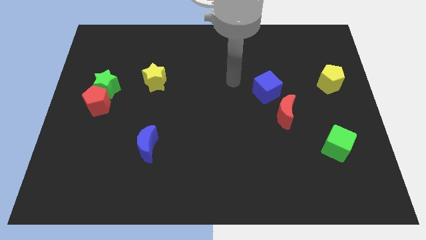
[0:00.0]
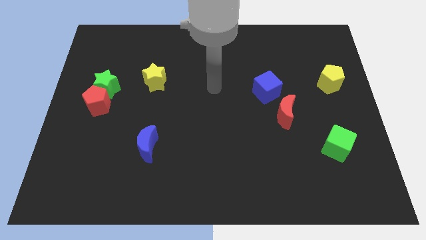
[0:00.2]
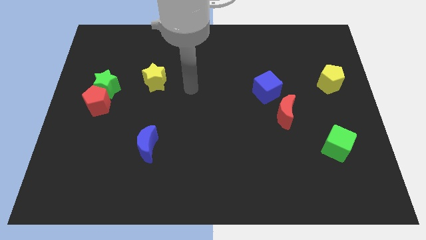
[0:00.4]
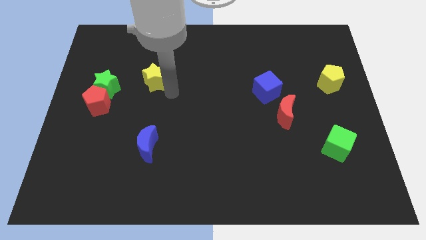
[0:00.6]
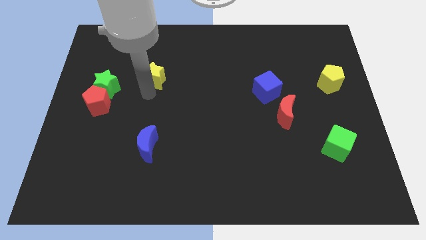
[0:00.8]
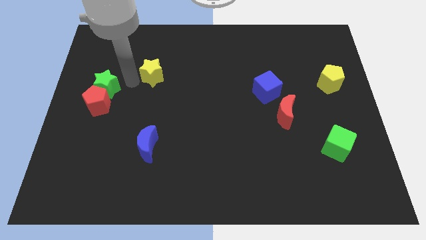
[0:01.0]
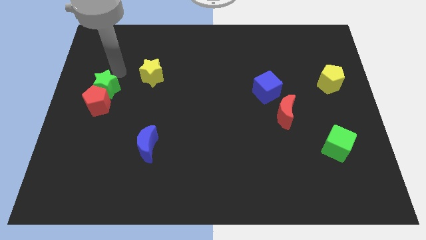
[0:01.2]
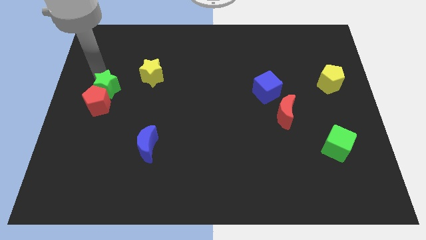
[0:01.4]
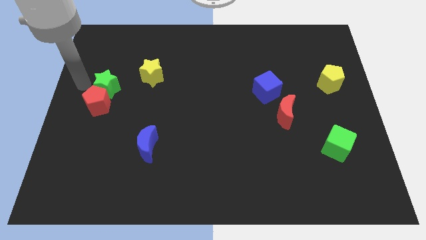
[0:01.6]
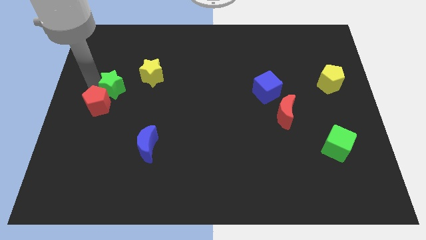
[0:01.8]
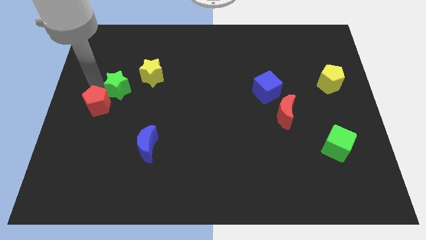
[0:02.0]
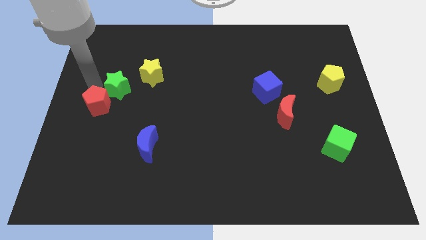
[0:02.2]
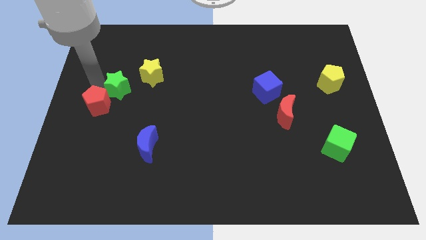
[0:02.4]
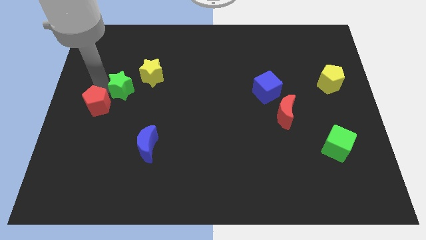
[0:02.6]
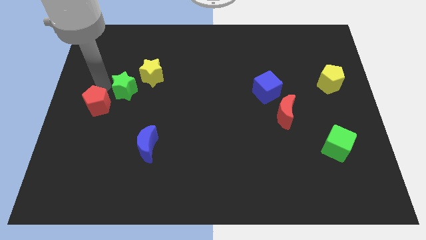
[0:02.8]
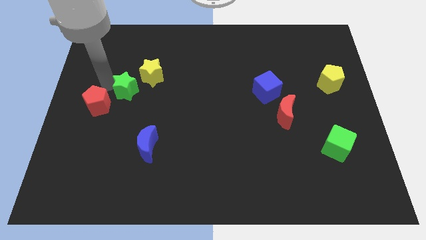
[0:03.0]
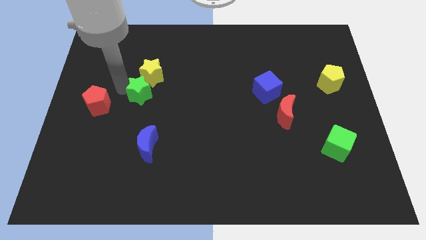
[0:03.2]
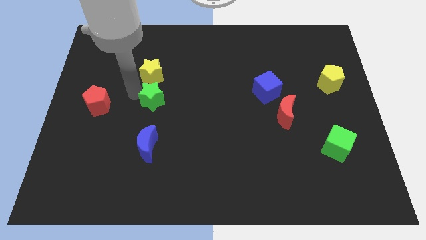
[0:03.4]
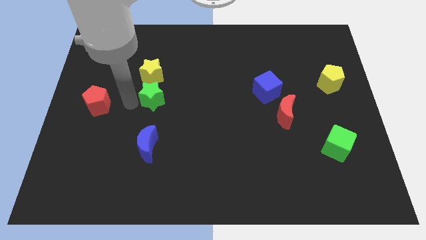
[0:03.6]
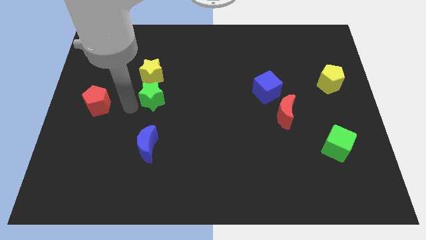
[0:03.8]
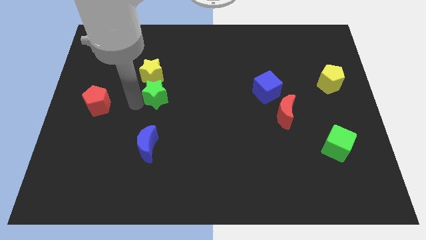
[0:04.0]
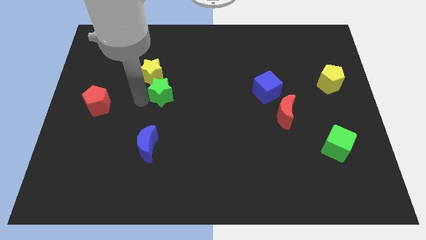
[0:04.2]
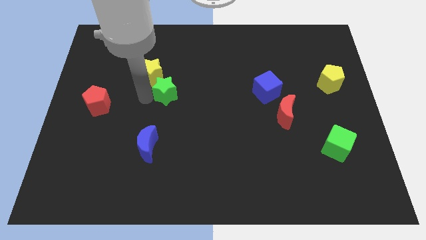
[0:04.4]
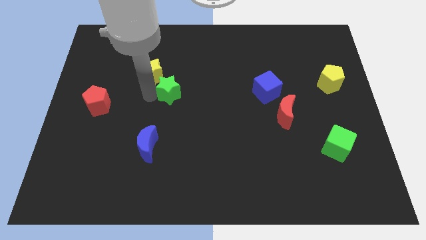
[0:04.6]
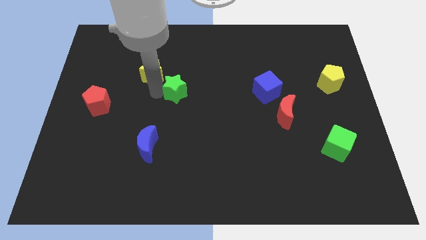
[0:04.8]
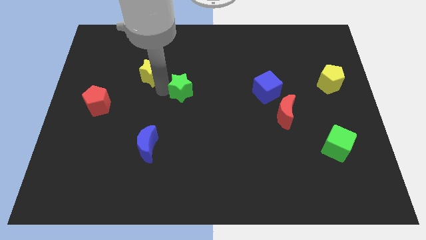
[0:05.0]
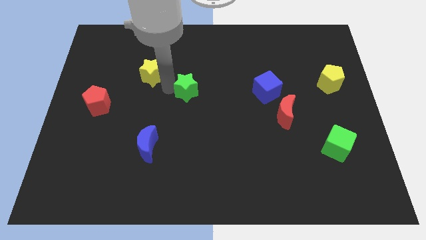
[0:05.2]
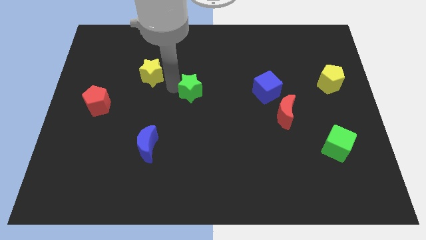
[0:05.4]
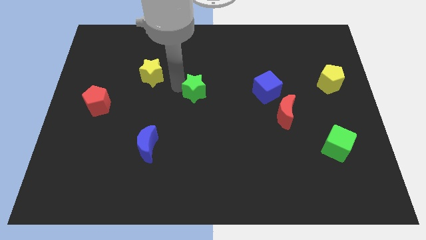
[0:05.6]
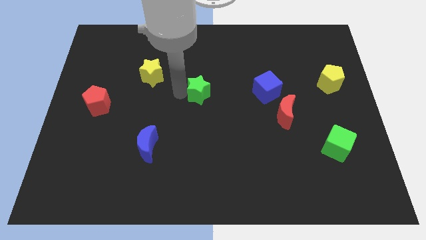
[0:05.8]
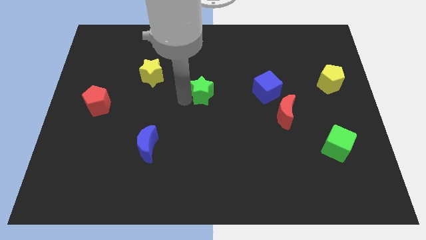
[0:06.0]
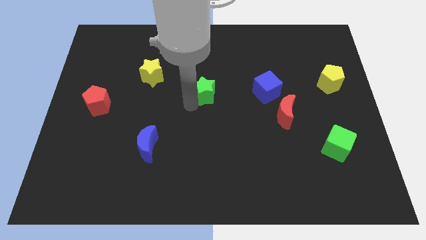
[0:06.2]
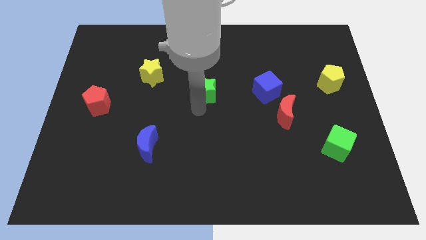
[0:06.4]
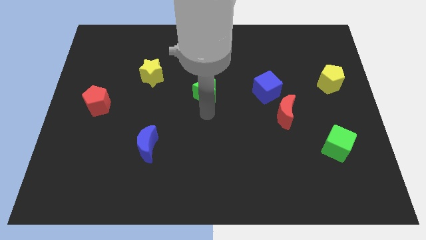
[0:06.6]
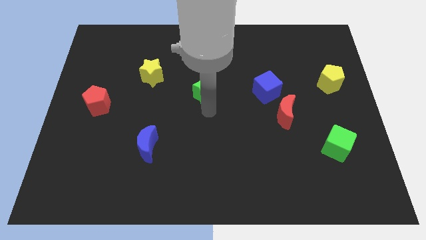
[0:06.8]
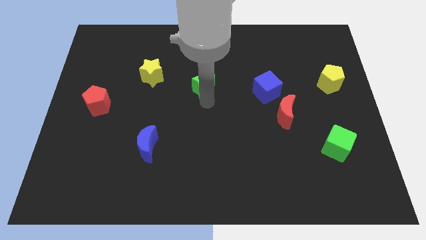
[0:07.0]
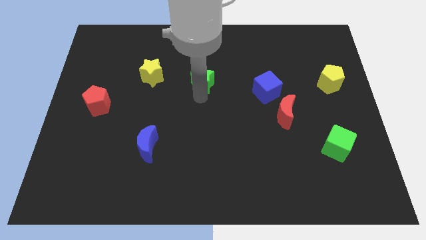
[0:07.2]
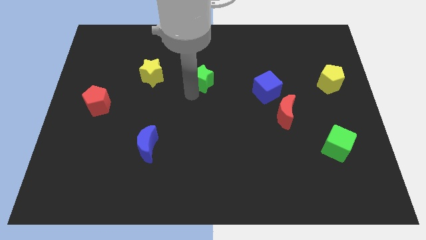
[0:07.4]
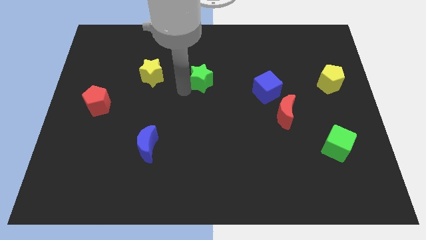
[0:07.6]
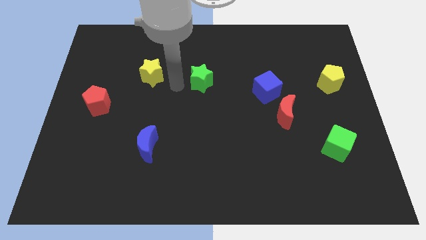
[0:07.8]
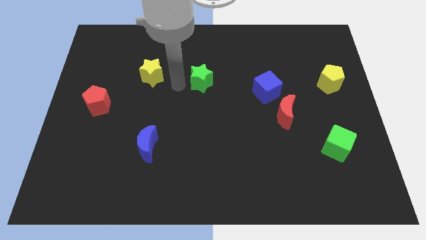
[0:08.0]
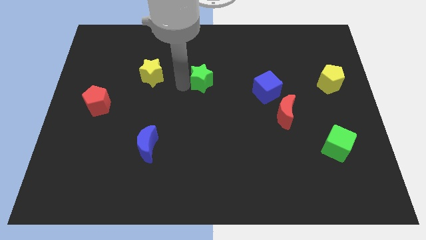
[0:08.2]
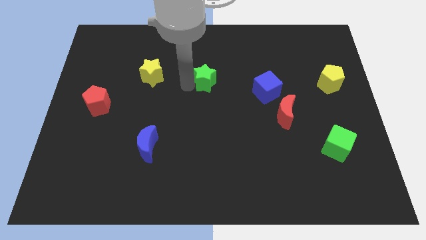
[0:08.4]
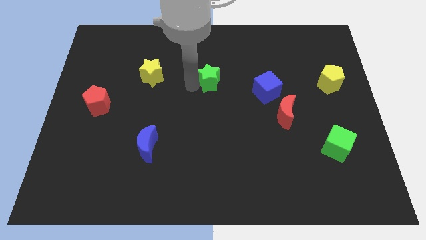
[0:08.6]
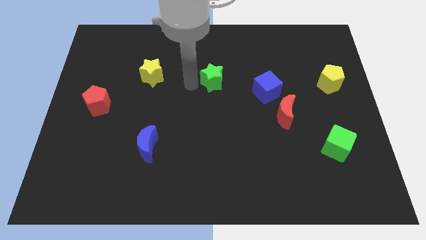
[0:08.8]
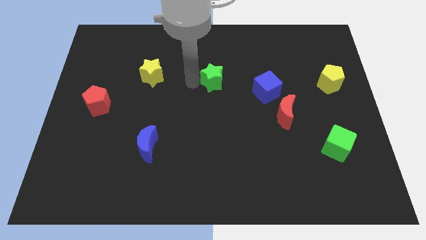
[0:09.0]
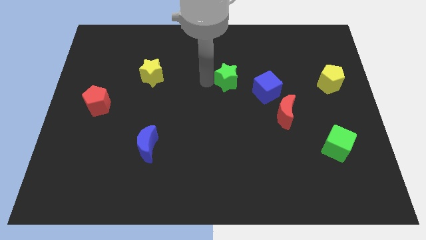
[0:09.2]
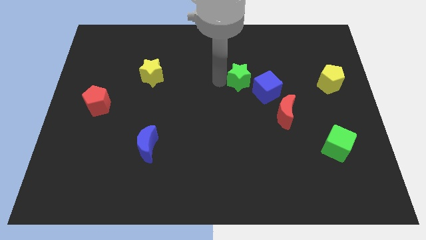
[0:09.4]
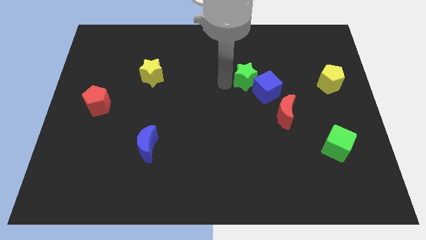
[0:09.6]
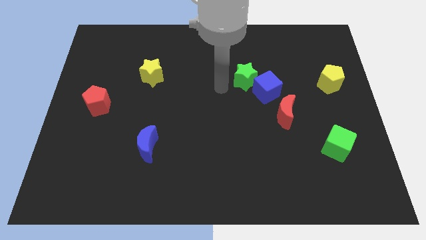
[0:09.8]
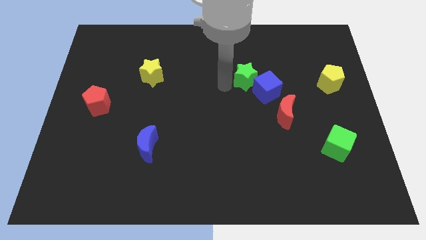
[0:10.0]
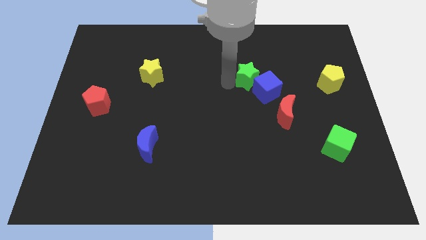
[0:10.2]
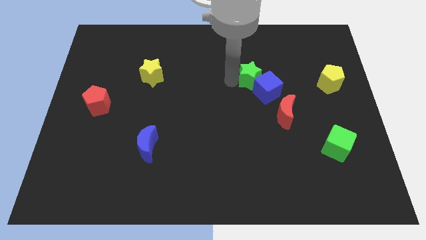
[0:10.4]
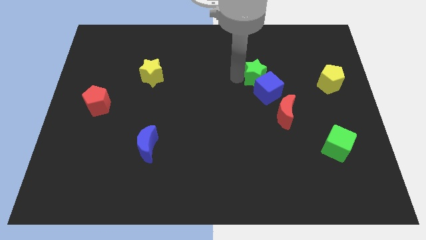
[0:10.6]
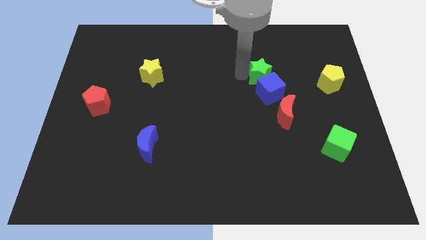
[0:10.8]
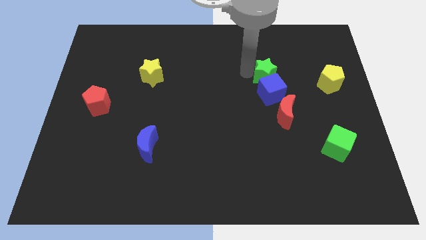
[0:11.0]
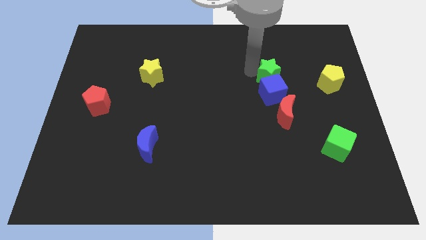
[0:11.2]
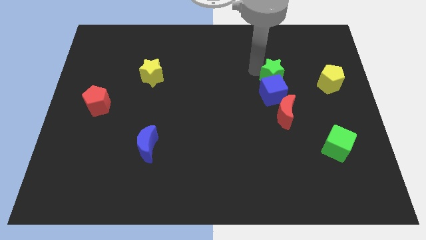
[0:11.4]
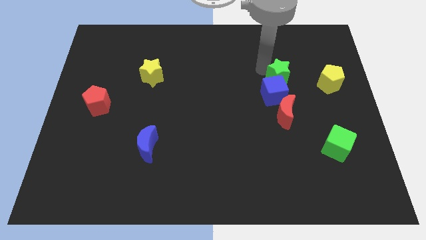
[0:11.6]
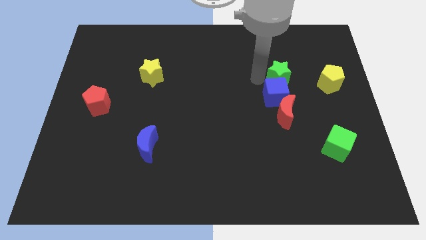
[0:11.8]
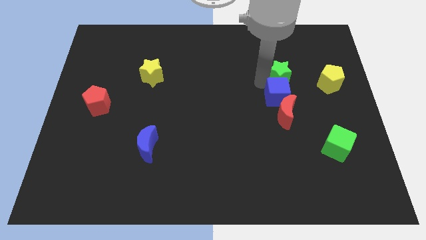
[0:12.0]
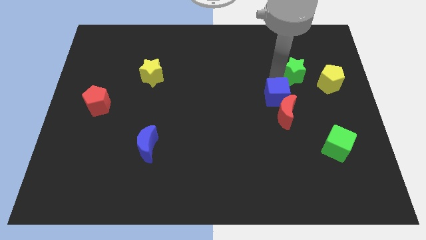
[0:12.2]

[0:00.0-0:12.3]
move the green star to the top left side of the yellow pentagon

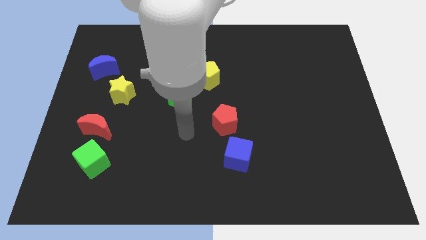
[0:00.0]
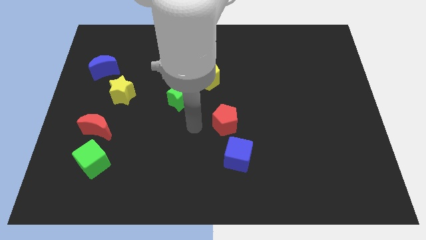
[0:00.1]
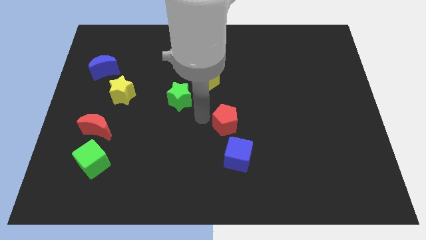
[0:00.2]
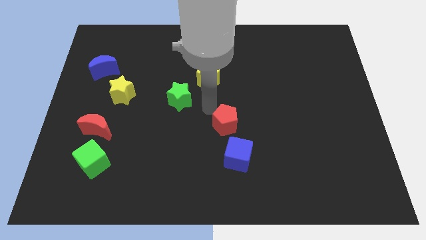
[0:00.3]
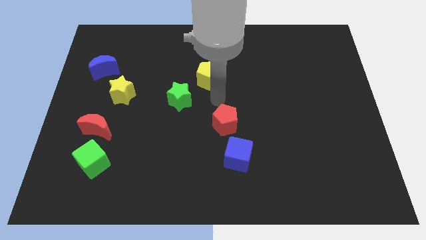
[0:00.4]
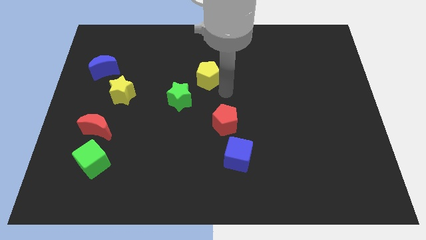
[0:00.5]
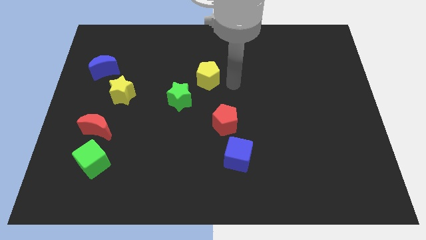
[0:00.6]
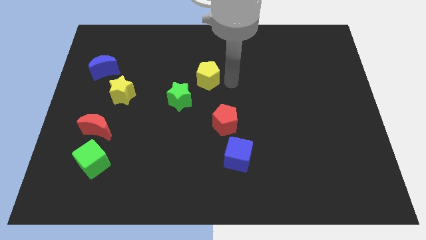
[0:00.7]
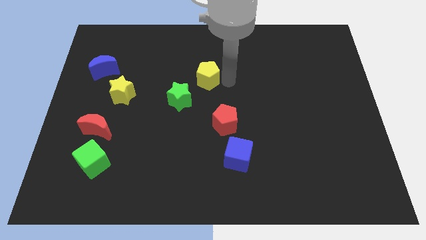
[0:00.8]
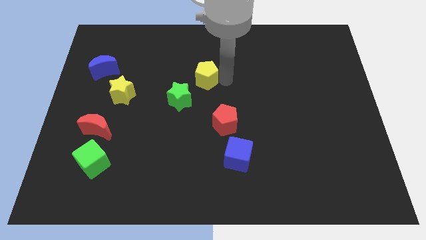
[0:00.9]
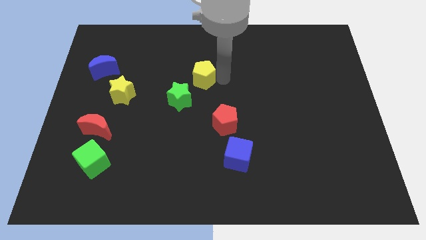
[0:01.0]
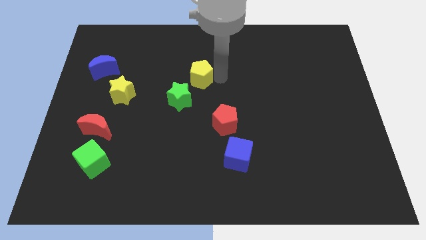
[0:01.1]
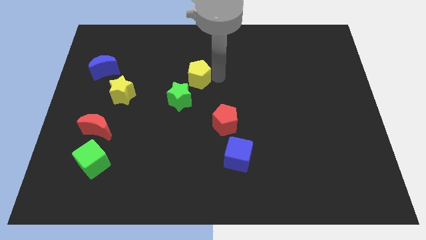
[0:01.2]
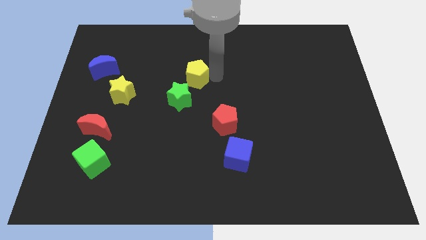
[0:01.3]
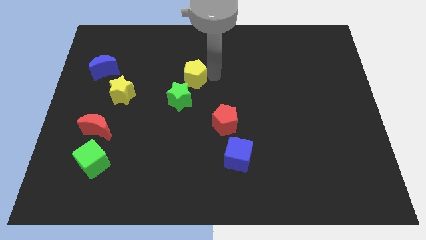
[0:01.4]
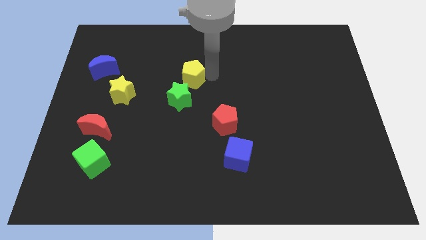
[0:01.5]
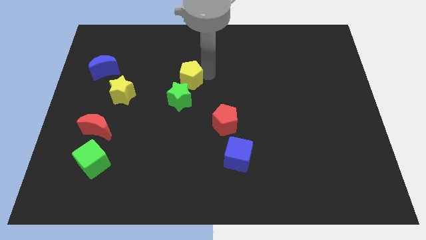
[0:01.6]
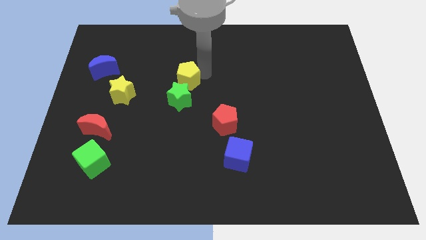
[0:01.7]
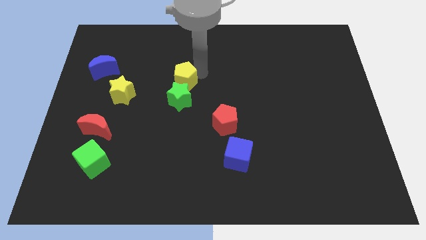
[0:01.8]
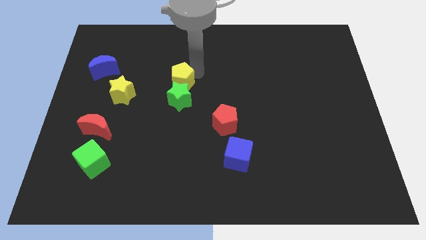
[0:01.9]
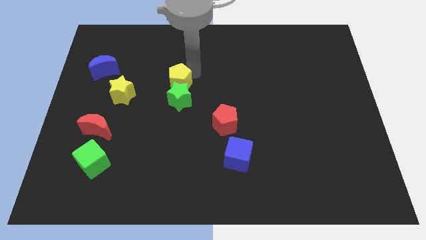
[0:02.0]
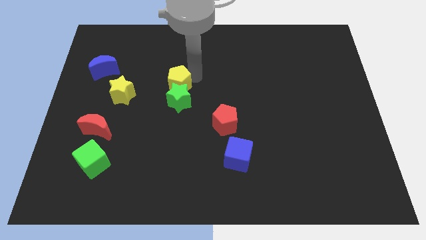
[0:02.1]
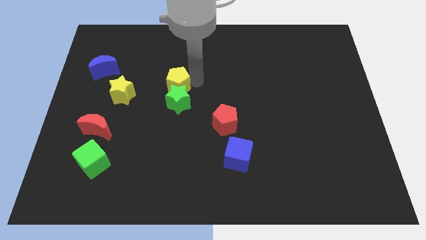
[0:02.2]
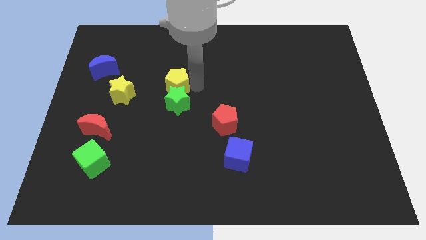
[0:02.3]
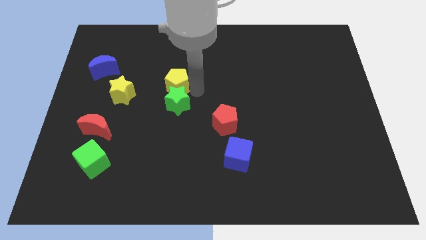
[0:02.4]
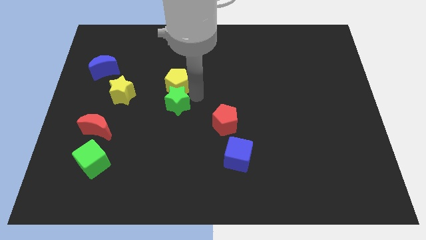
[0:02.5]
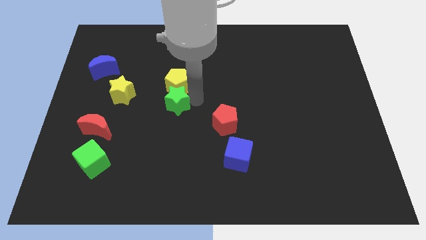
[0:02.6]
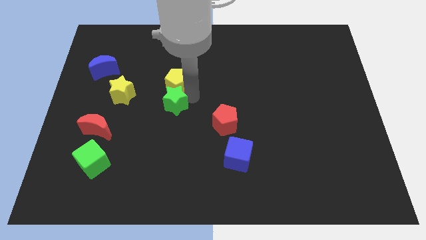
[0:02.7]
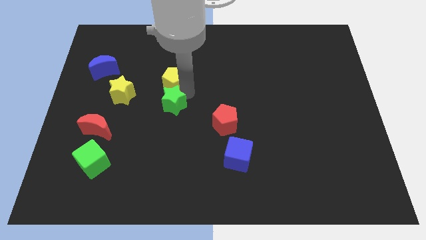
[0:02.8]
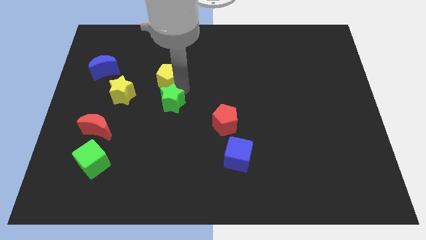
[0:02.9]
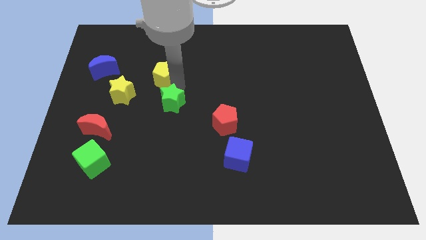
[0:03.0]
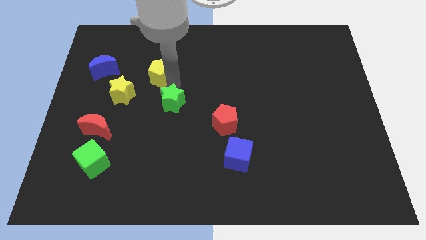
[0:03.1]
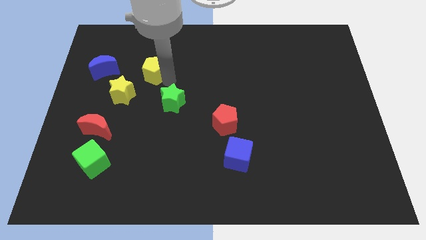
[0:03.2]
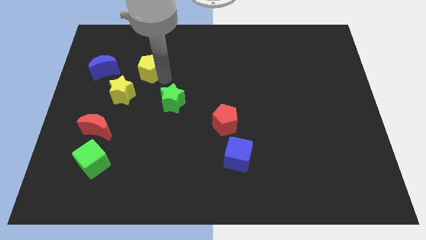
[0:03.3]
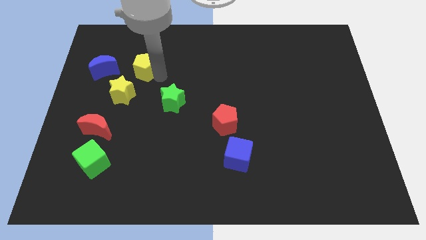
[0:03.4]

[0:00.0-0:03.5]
put the yellow pentagon to the top of the yellow star
